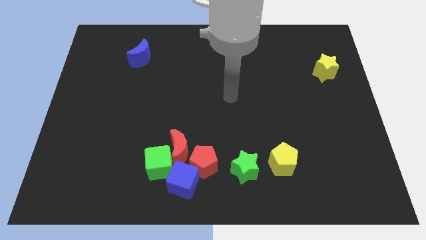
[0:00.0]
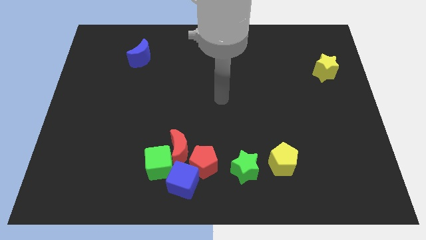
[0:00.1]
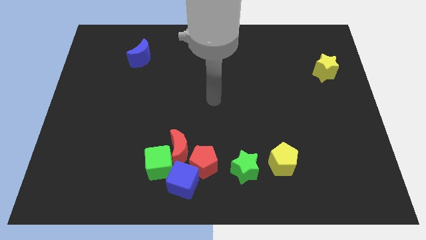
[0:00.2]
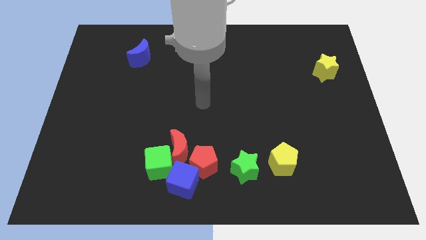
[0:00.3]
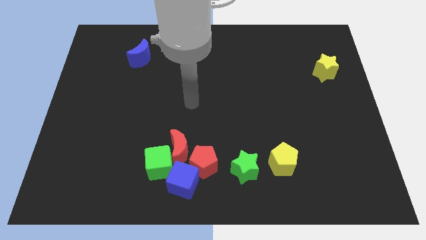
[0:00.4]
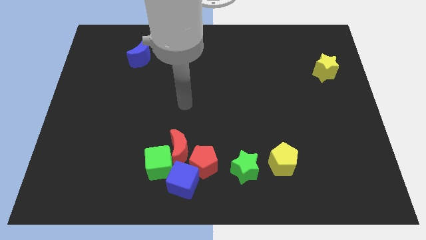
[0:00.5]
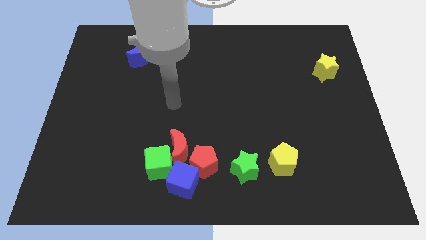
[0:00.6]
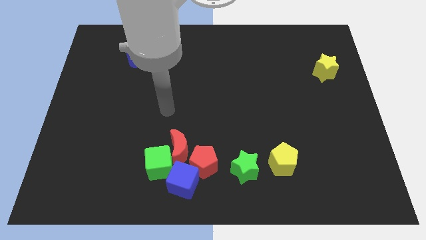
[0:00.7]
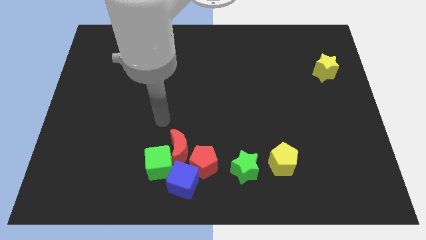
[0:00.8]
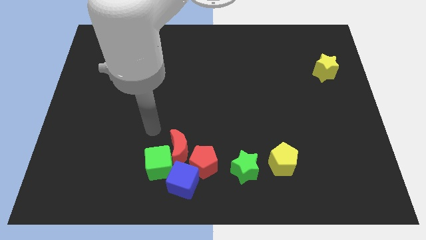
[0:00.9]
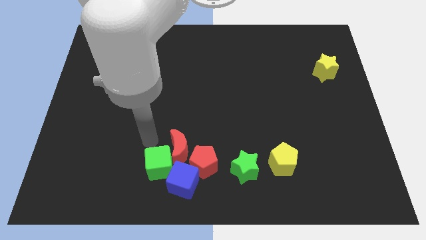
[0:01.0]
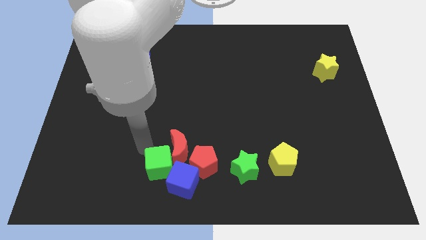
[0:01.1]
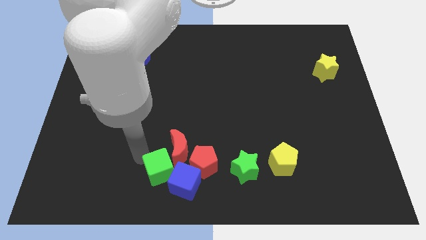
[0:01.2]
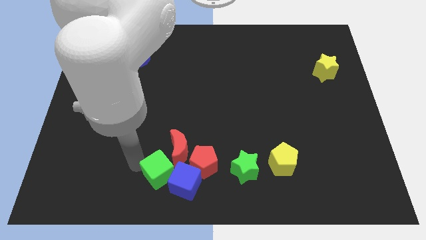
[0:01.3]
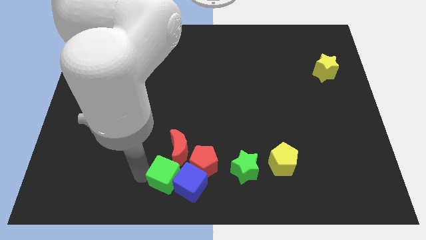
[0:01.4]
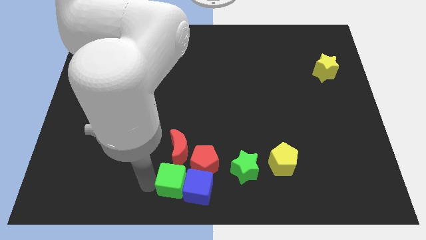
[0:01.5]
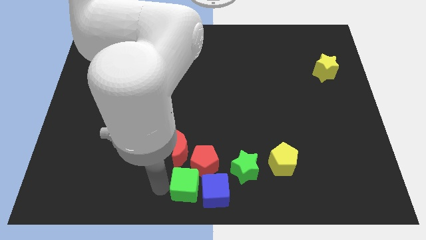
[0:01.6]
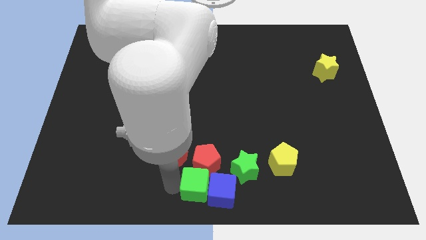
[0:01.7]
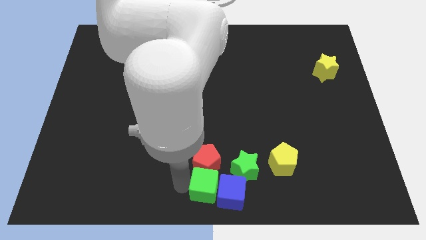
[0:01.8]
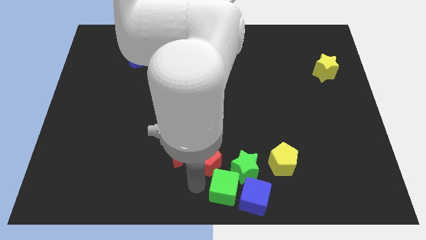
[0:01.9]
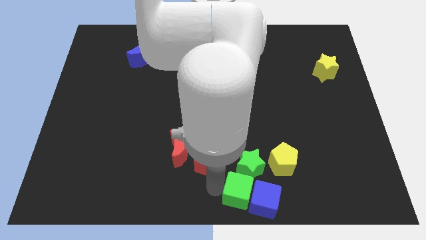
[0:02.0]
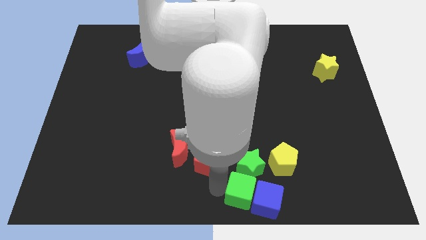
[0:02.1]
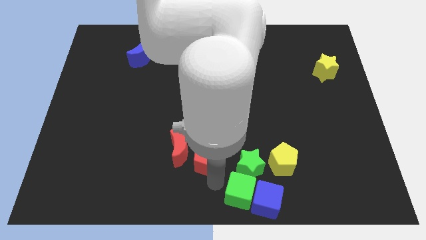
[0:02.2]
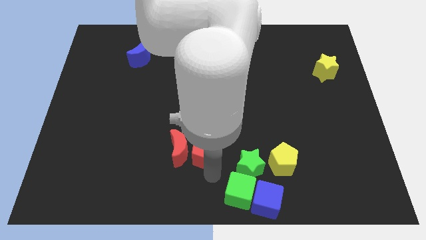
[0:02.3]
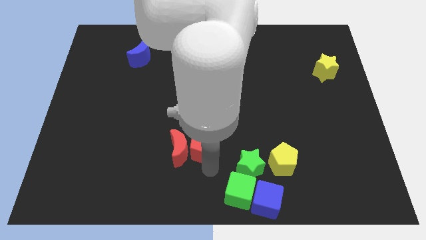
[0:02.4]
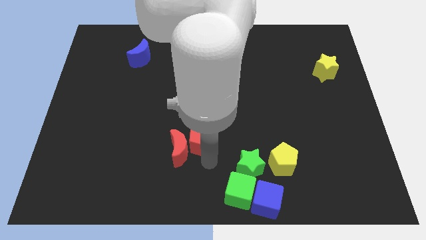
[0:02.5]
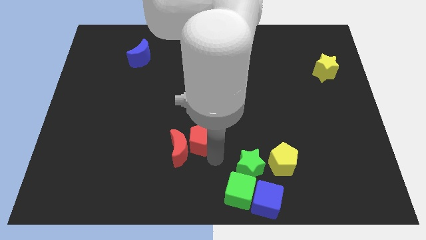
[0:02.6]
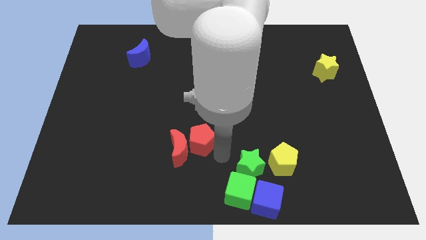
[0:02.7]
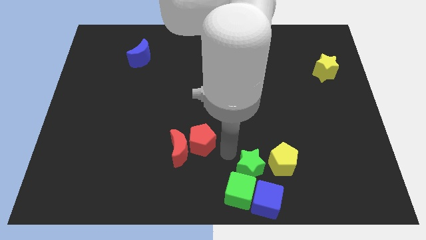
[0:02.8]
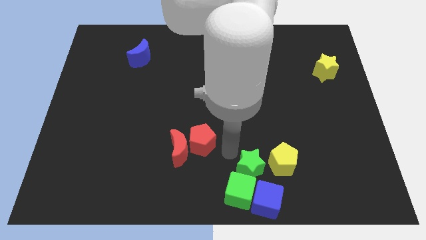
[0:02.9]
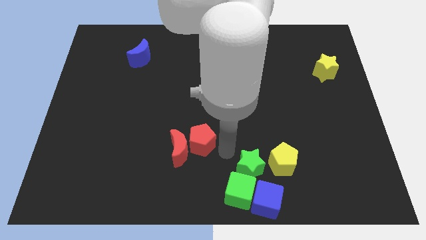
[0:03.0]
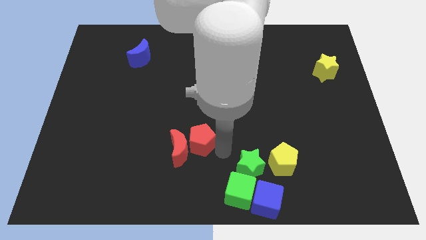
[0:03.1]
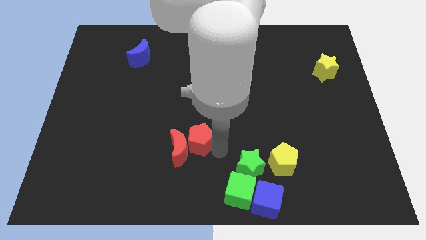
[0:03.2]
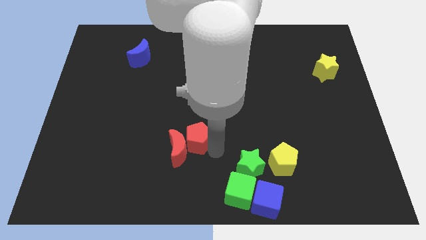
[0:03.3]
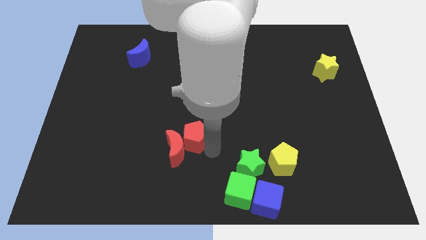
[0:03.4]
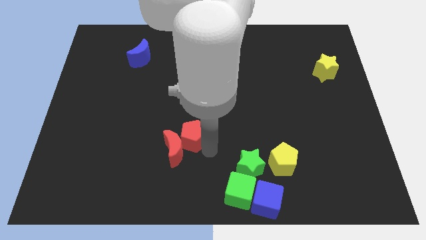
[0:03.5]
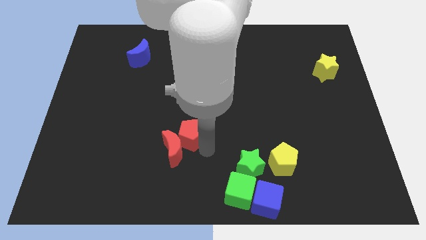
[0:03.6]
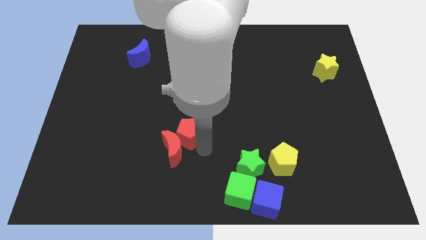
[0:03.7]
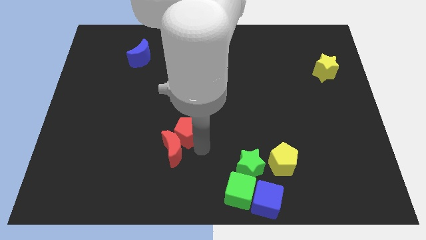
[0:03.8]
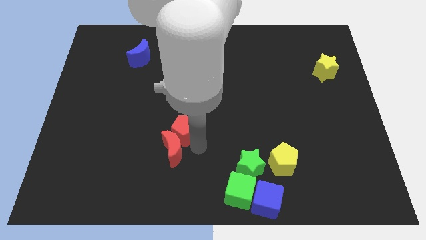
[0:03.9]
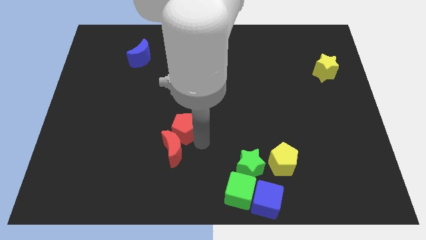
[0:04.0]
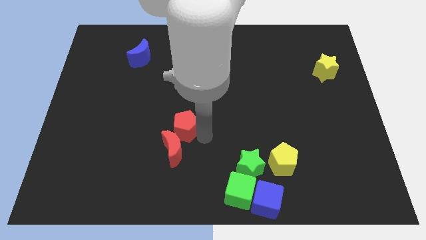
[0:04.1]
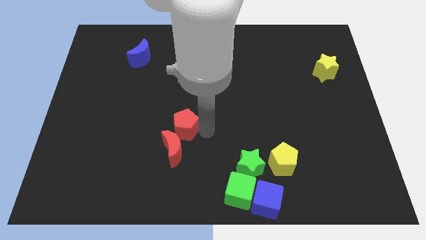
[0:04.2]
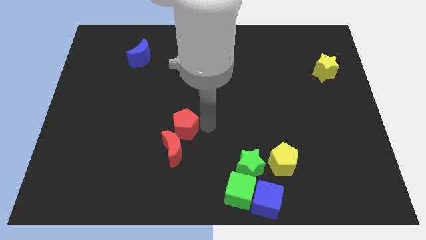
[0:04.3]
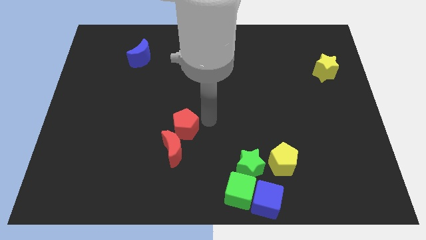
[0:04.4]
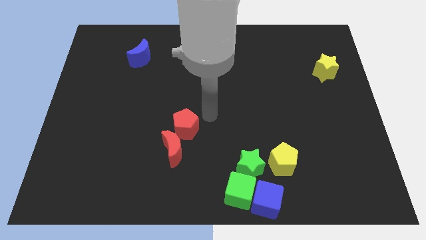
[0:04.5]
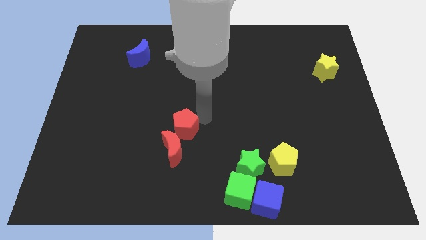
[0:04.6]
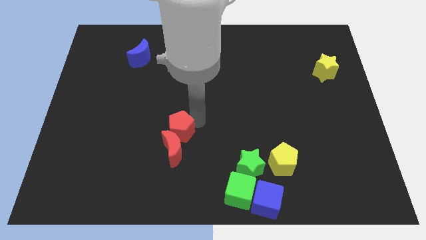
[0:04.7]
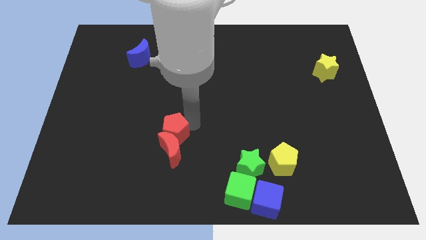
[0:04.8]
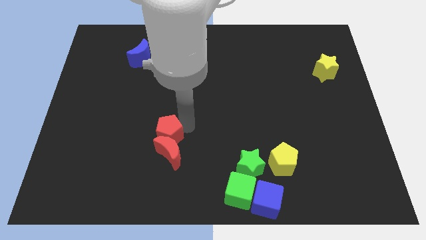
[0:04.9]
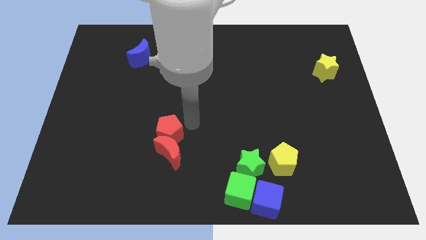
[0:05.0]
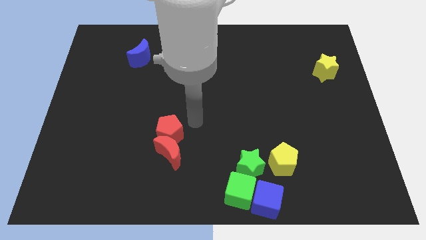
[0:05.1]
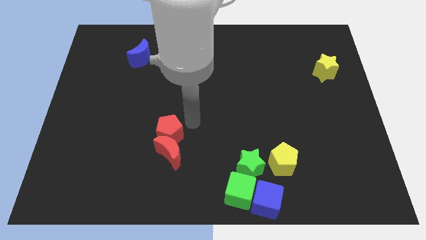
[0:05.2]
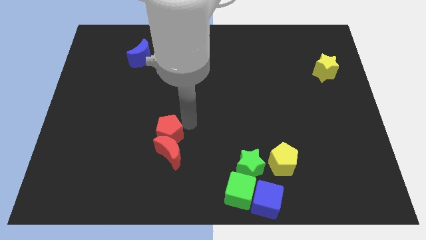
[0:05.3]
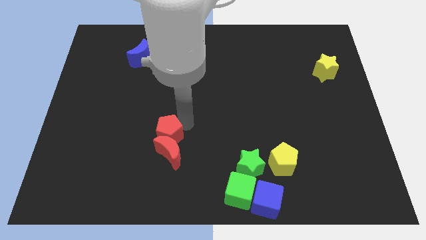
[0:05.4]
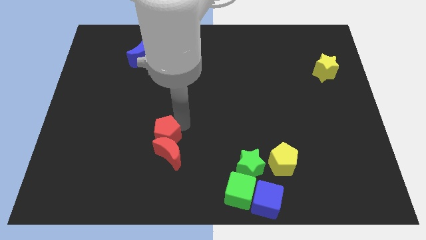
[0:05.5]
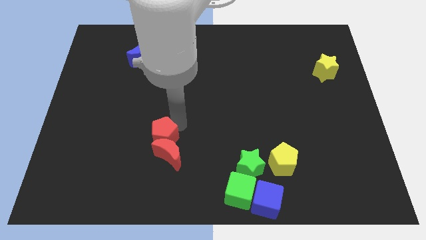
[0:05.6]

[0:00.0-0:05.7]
slightly slide the red pentagon left

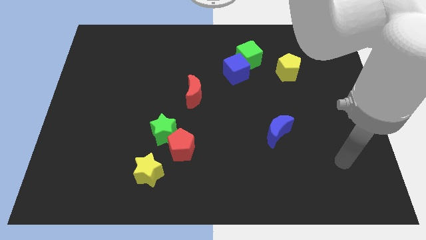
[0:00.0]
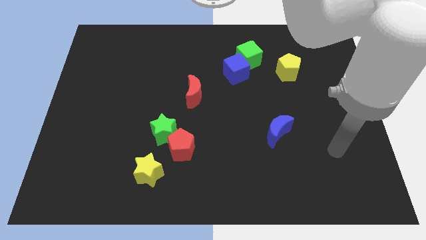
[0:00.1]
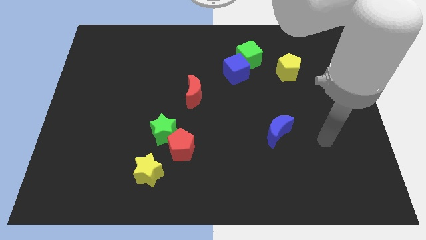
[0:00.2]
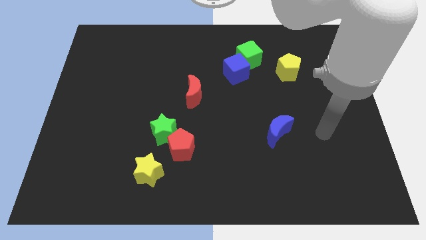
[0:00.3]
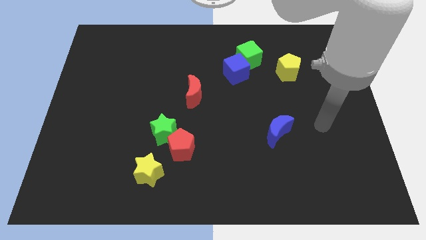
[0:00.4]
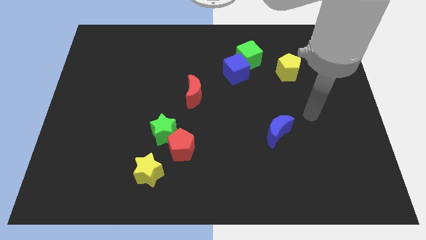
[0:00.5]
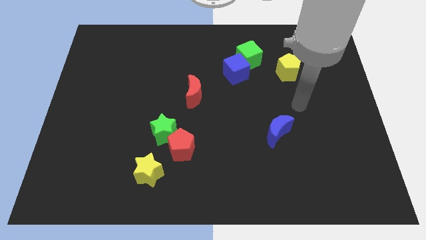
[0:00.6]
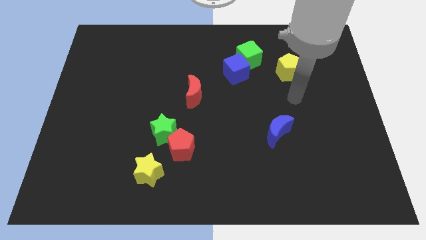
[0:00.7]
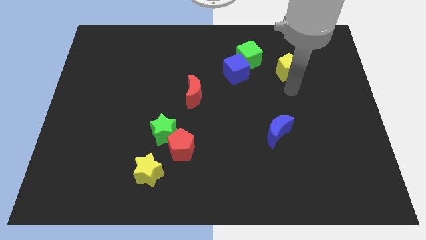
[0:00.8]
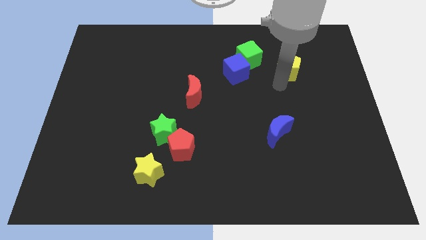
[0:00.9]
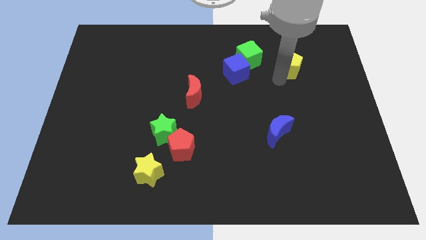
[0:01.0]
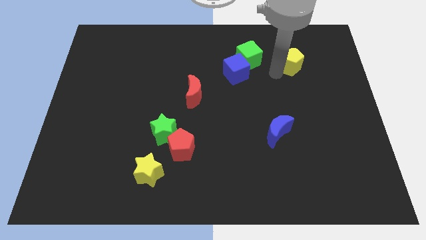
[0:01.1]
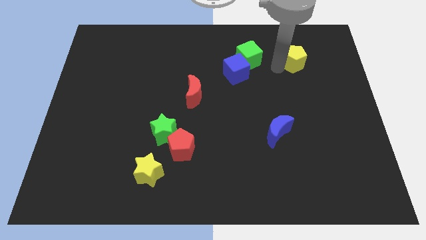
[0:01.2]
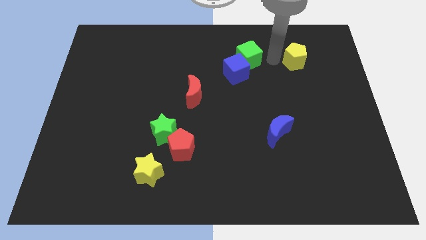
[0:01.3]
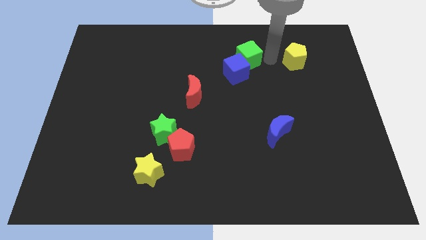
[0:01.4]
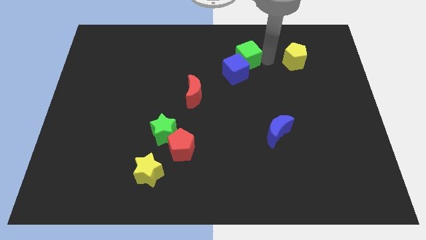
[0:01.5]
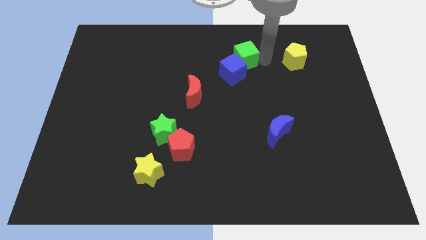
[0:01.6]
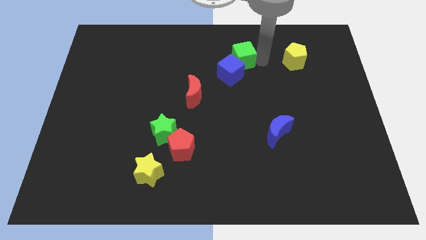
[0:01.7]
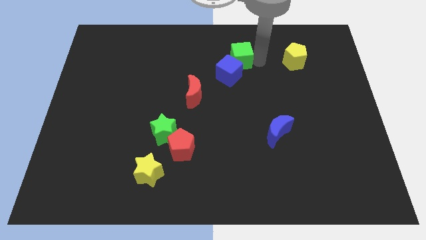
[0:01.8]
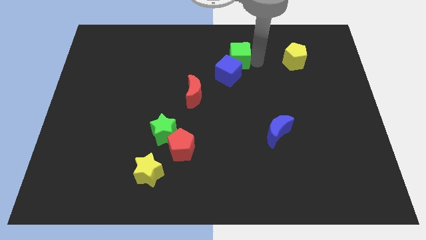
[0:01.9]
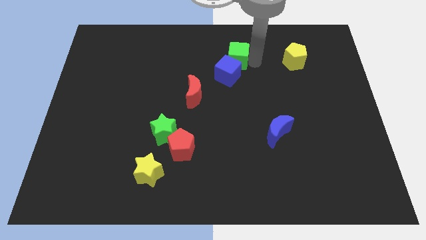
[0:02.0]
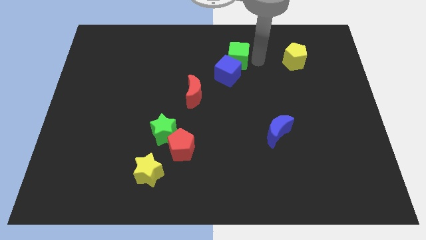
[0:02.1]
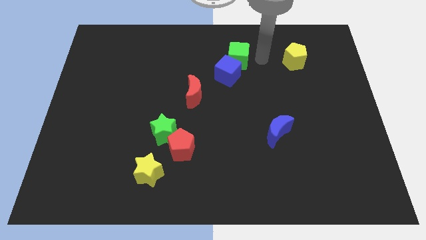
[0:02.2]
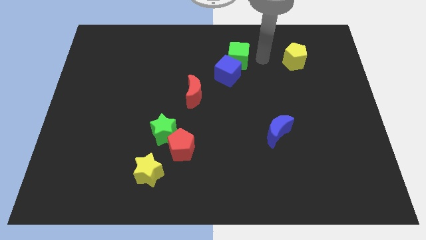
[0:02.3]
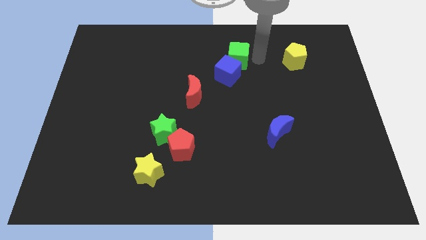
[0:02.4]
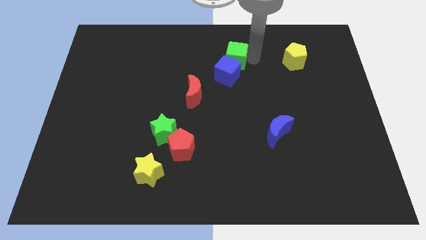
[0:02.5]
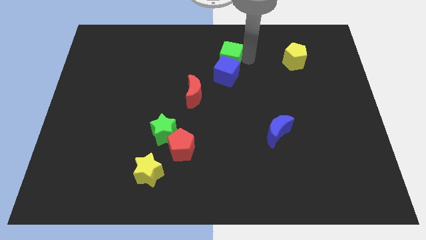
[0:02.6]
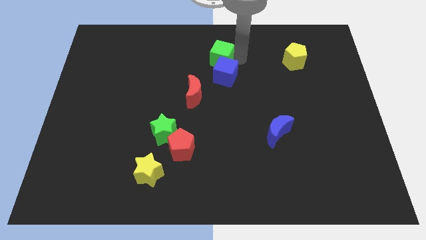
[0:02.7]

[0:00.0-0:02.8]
push the green cube a little bit left
